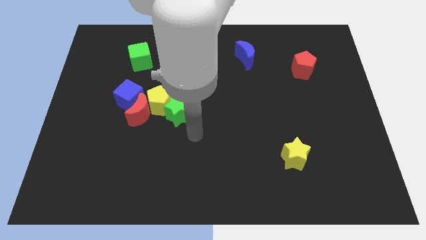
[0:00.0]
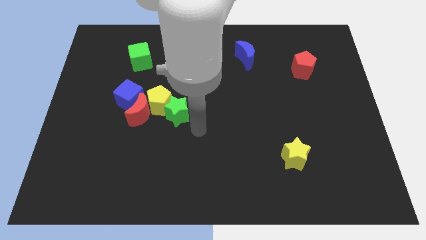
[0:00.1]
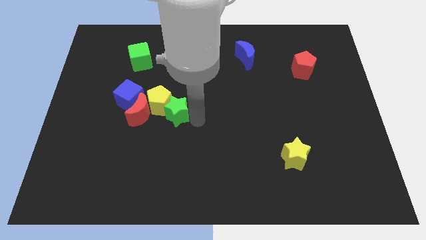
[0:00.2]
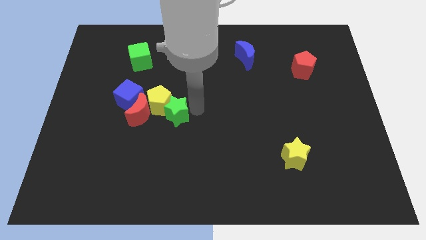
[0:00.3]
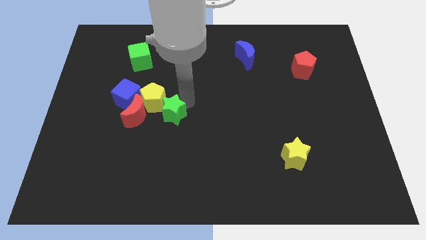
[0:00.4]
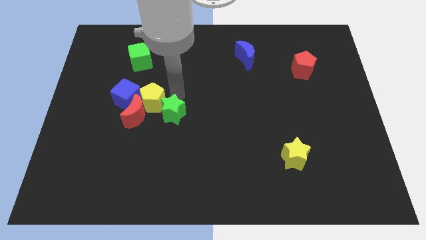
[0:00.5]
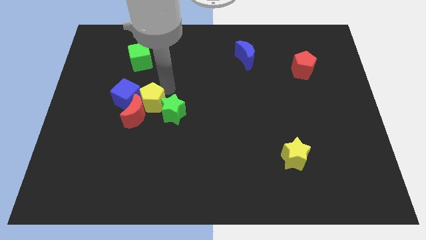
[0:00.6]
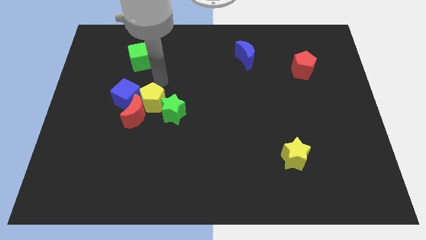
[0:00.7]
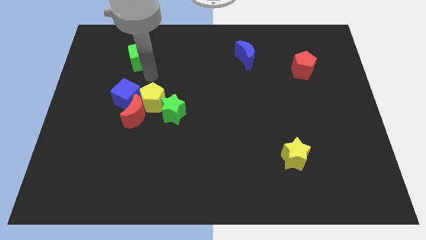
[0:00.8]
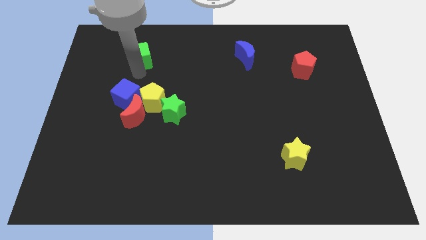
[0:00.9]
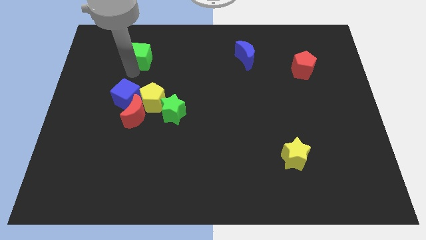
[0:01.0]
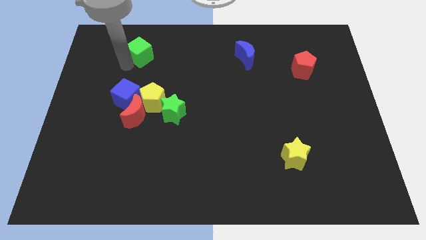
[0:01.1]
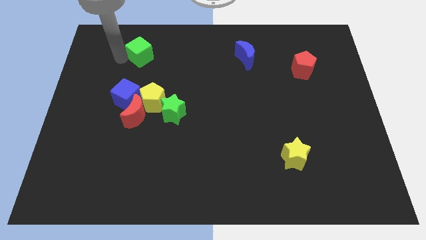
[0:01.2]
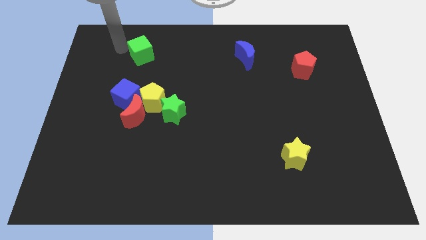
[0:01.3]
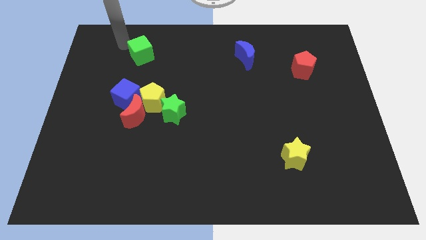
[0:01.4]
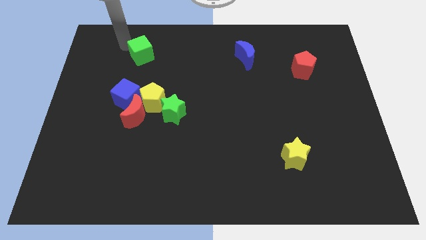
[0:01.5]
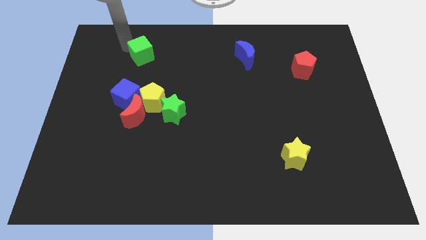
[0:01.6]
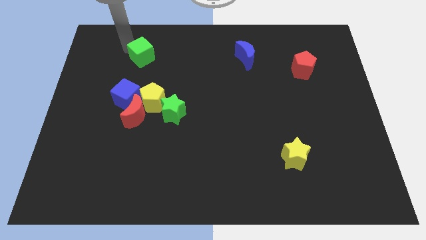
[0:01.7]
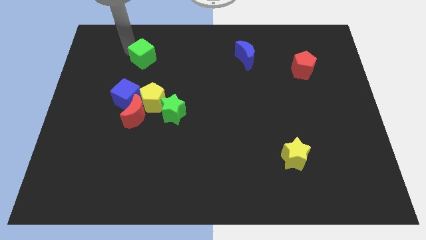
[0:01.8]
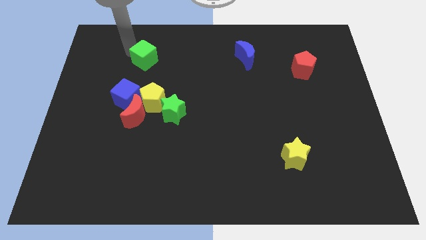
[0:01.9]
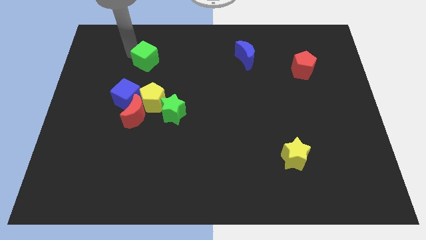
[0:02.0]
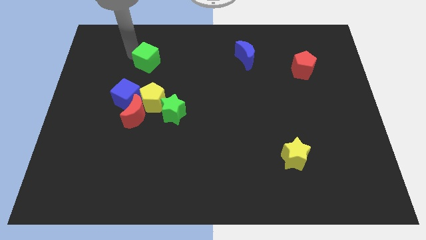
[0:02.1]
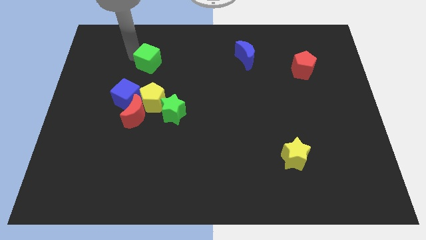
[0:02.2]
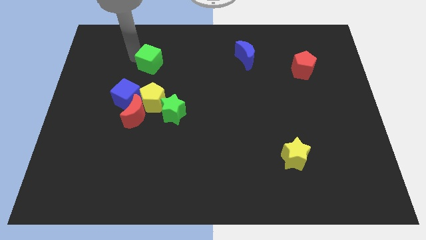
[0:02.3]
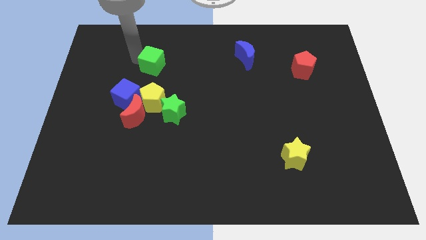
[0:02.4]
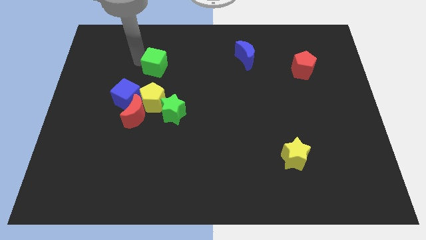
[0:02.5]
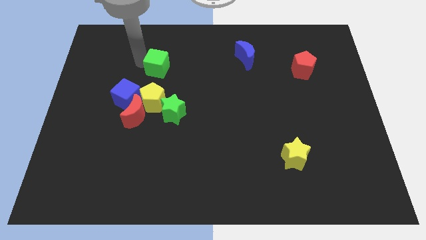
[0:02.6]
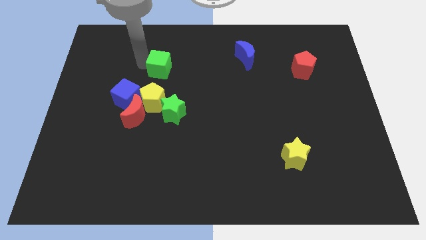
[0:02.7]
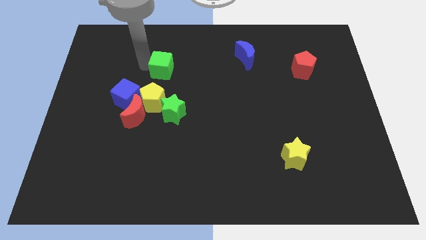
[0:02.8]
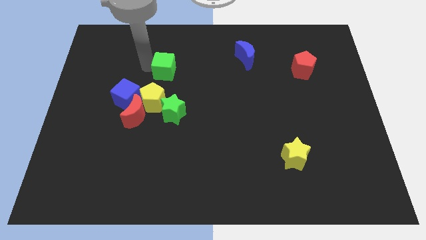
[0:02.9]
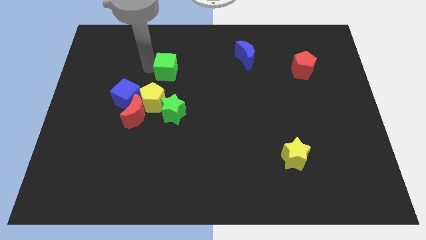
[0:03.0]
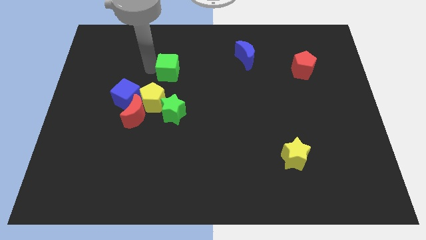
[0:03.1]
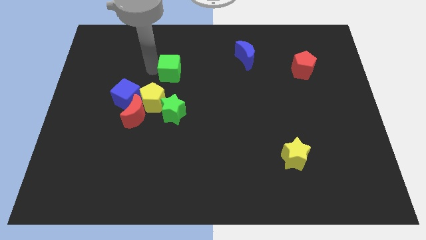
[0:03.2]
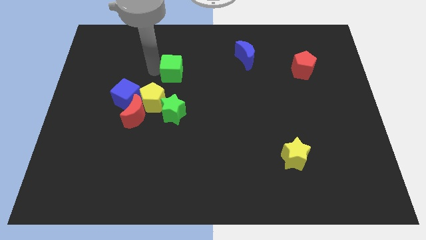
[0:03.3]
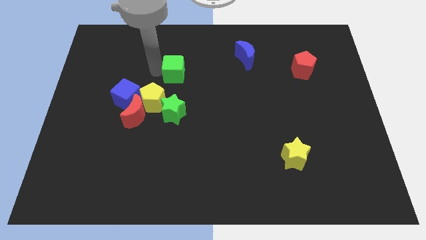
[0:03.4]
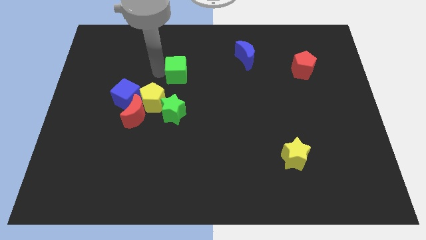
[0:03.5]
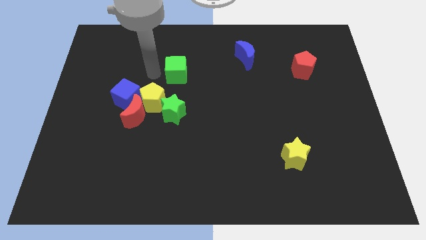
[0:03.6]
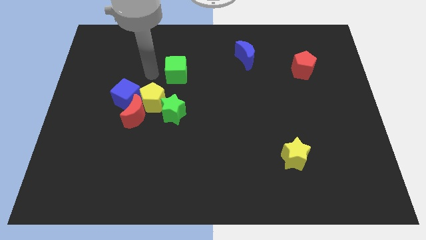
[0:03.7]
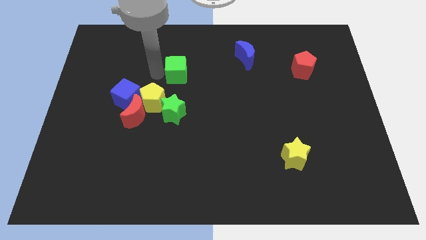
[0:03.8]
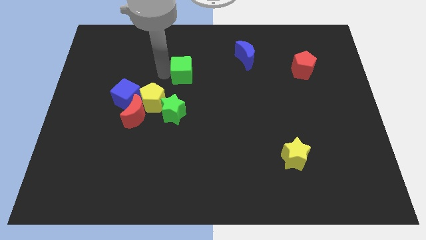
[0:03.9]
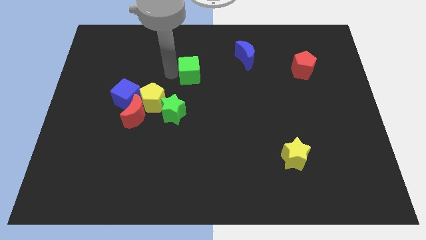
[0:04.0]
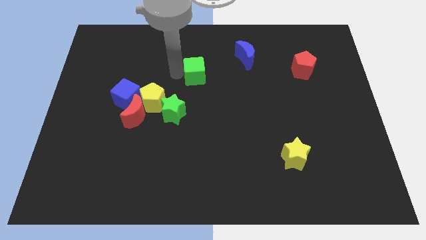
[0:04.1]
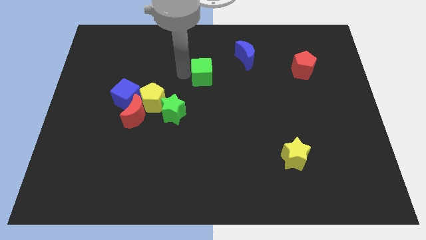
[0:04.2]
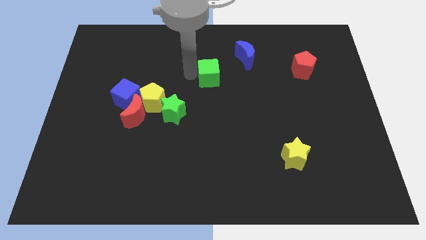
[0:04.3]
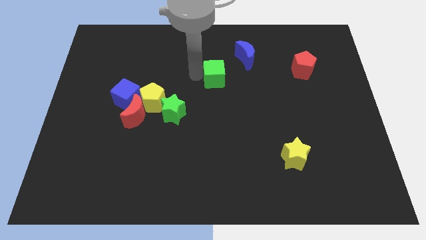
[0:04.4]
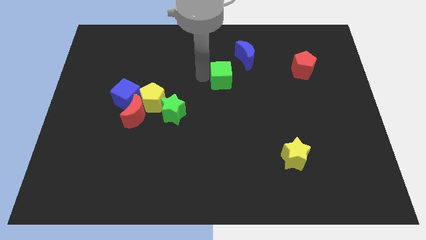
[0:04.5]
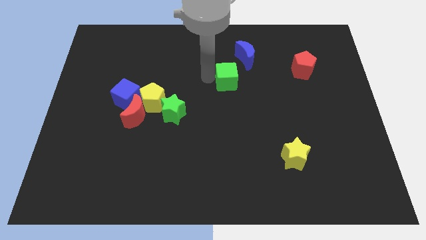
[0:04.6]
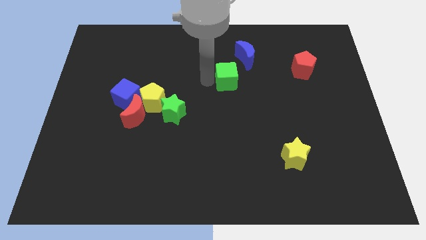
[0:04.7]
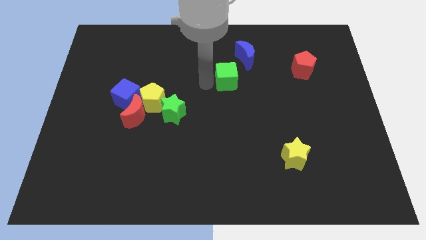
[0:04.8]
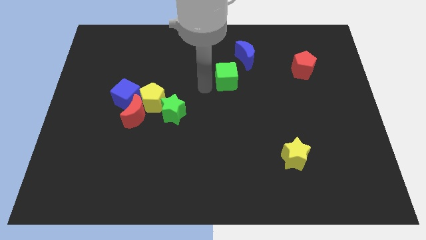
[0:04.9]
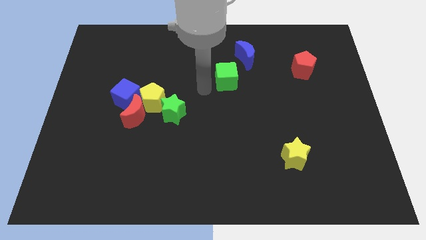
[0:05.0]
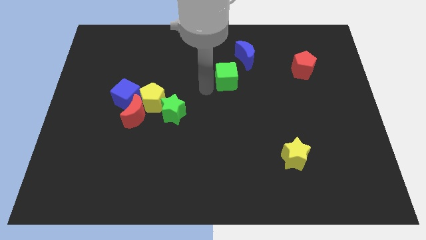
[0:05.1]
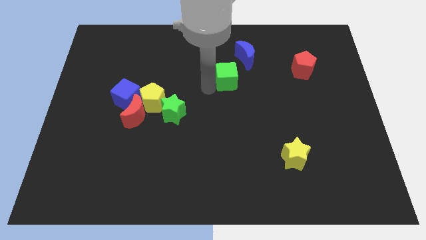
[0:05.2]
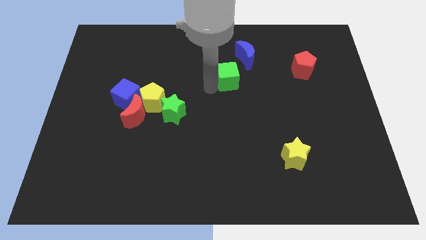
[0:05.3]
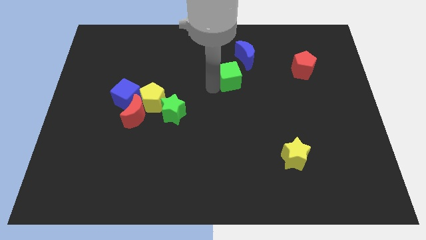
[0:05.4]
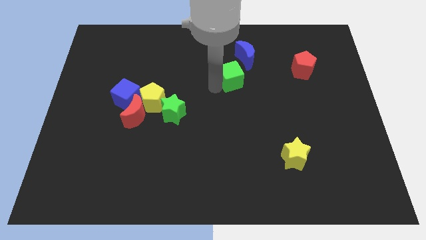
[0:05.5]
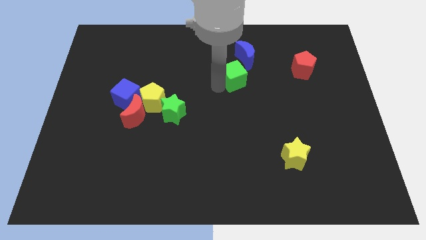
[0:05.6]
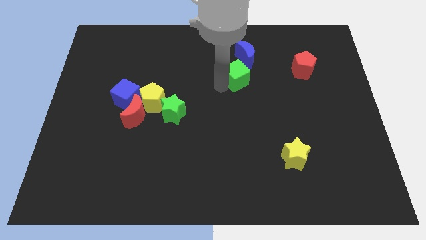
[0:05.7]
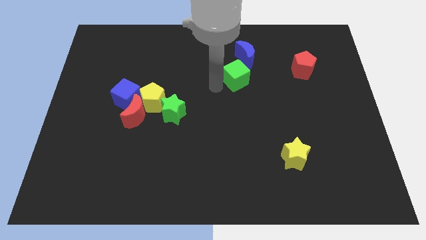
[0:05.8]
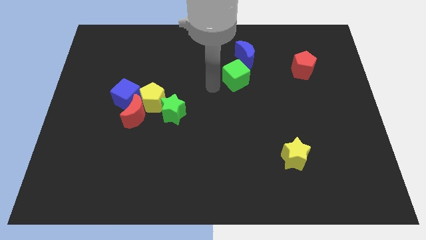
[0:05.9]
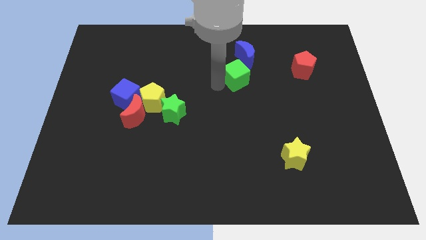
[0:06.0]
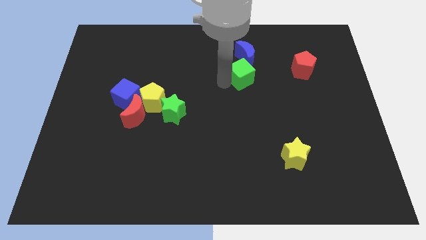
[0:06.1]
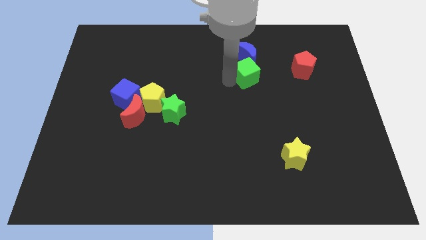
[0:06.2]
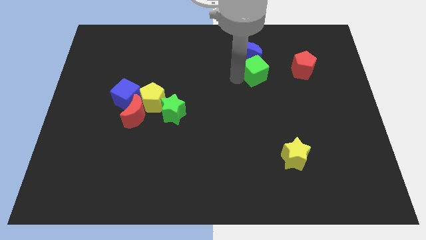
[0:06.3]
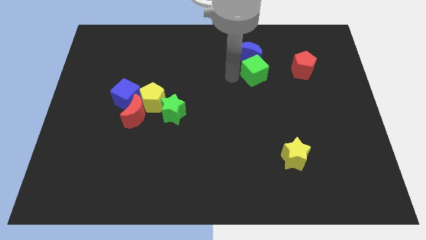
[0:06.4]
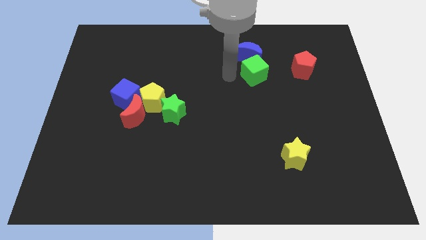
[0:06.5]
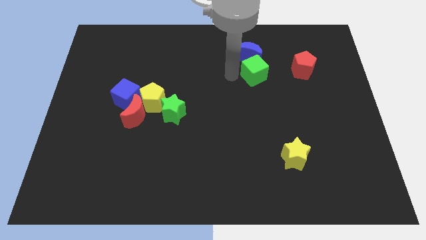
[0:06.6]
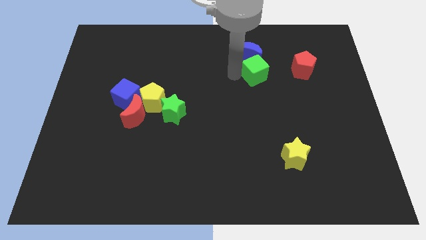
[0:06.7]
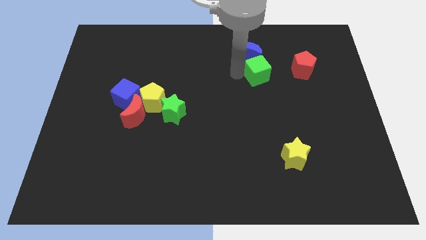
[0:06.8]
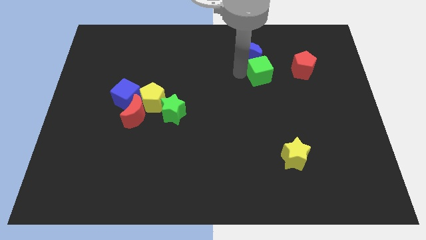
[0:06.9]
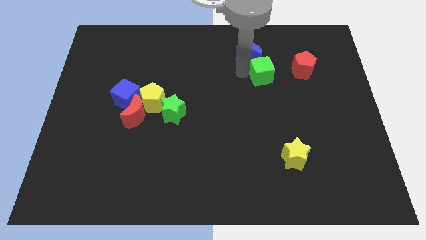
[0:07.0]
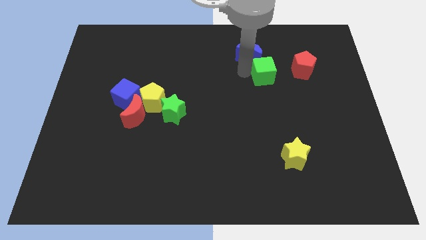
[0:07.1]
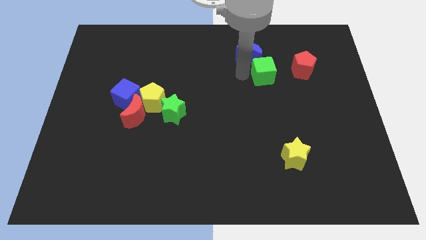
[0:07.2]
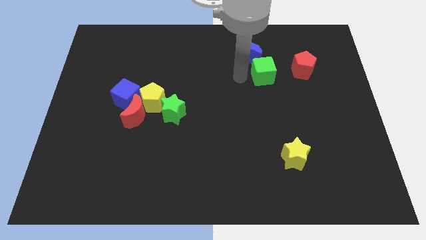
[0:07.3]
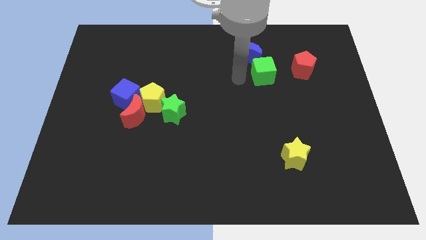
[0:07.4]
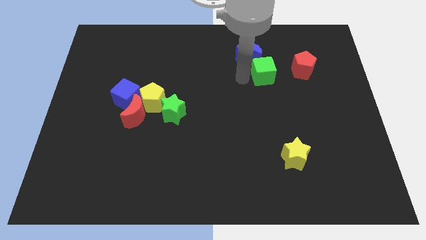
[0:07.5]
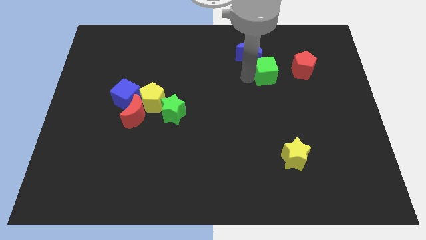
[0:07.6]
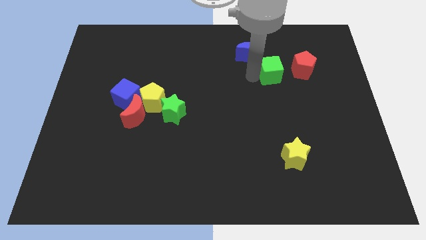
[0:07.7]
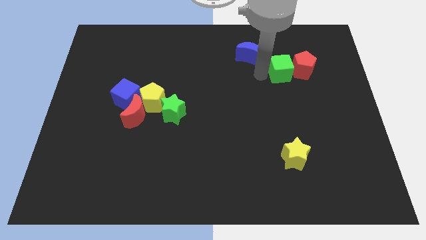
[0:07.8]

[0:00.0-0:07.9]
push the green cube close to the red pentagon

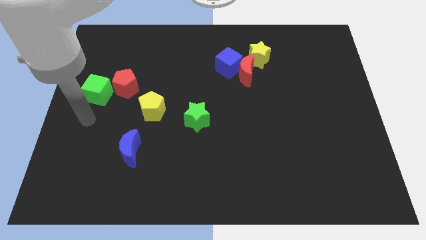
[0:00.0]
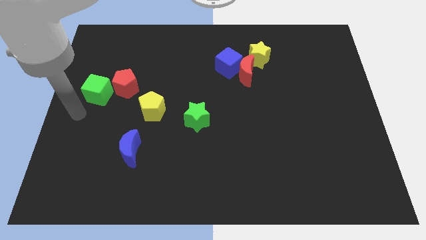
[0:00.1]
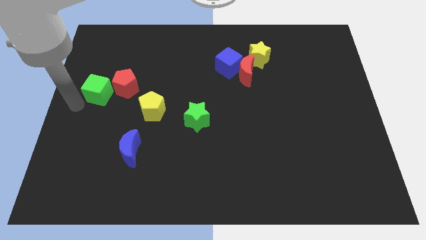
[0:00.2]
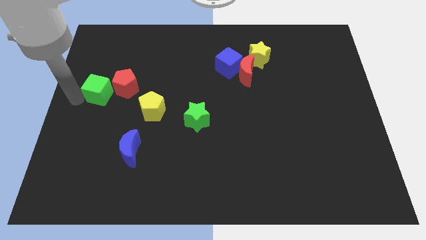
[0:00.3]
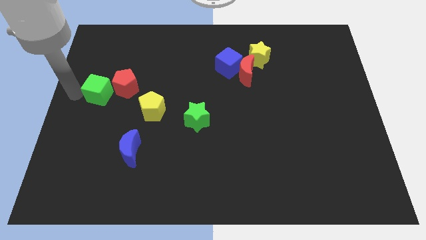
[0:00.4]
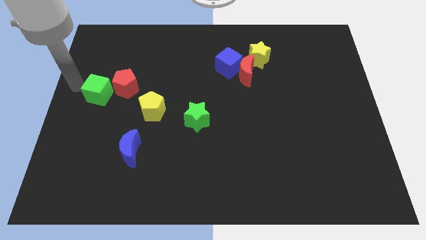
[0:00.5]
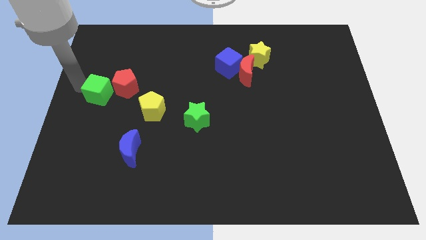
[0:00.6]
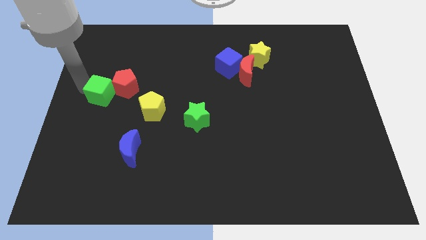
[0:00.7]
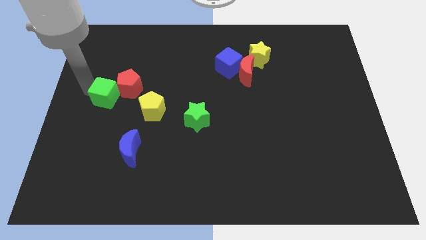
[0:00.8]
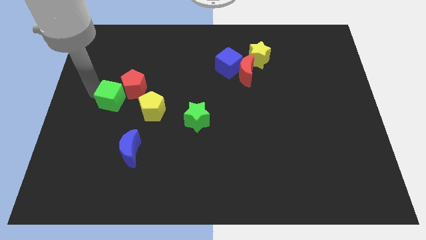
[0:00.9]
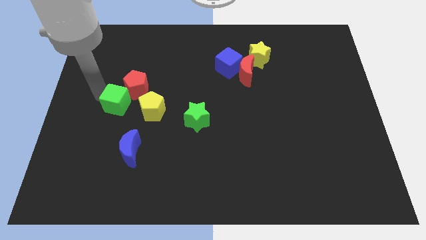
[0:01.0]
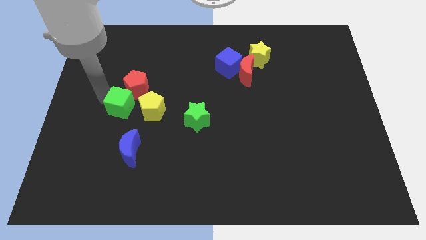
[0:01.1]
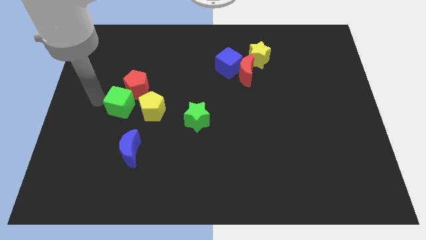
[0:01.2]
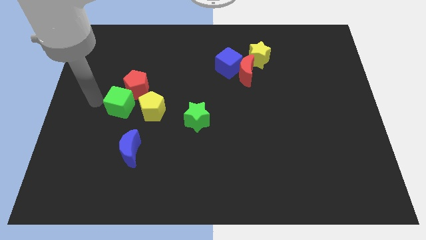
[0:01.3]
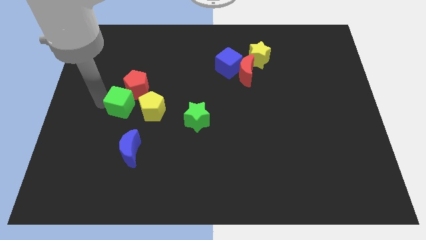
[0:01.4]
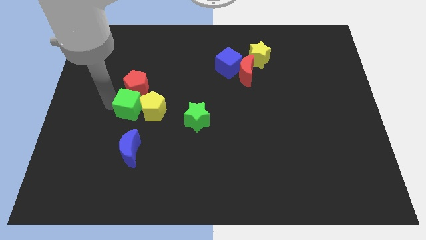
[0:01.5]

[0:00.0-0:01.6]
slide the green cube next to the yellow pentagon
